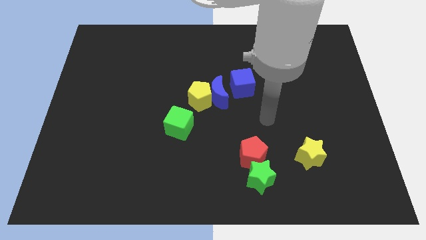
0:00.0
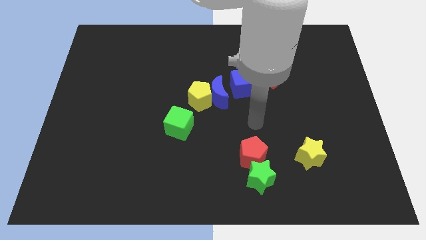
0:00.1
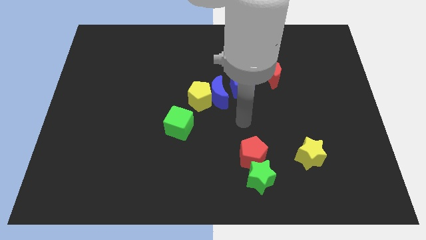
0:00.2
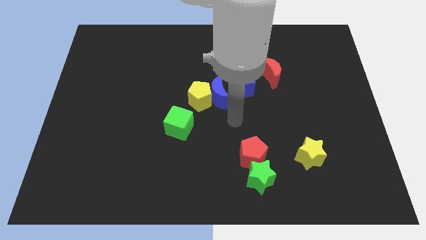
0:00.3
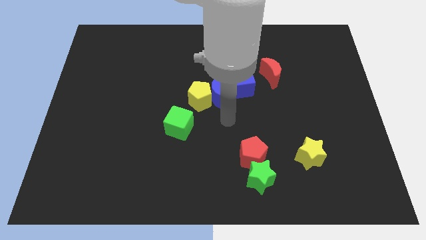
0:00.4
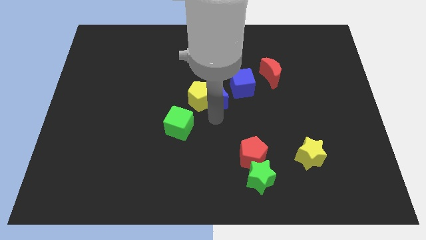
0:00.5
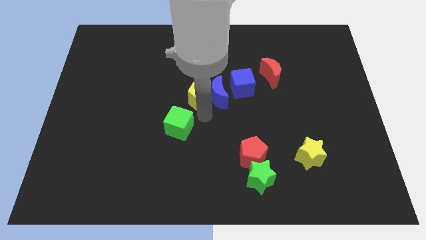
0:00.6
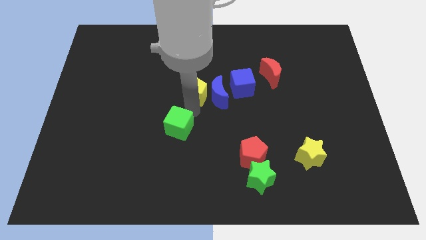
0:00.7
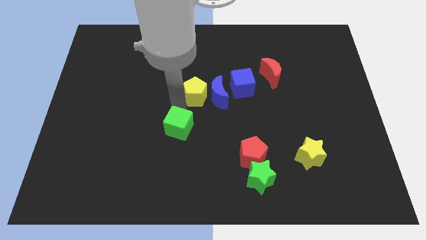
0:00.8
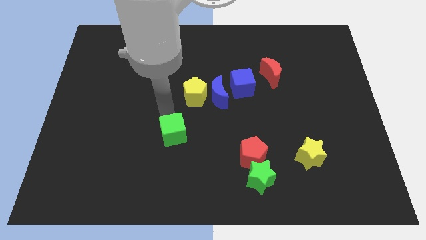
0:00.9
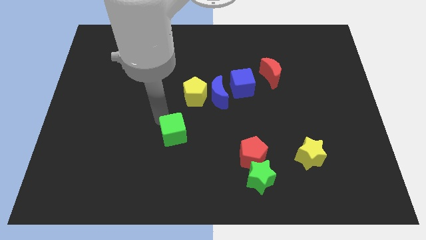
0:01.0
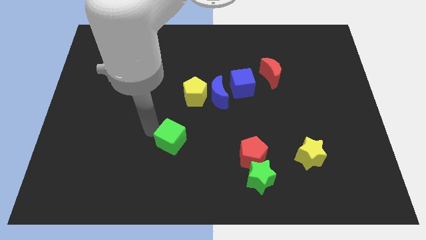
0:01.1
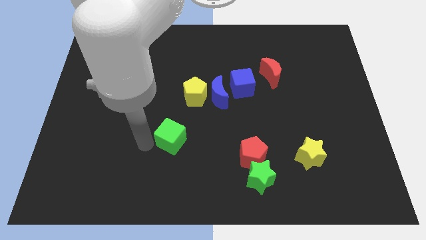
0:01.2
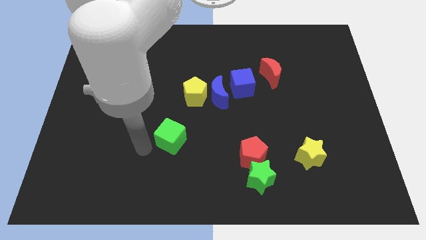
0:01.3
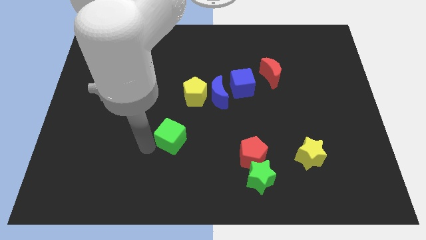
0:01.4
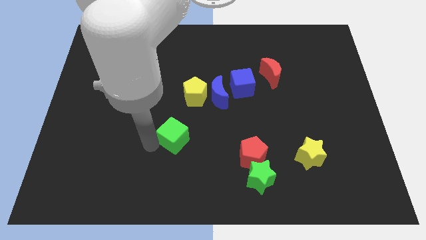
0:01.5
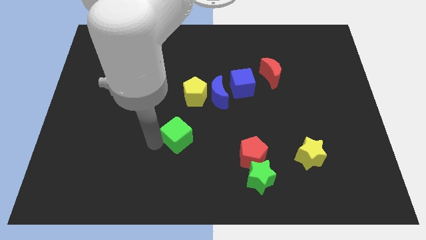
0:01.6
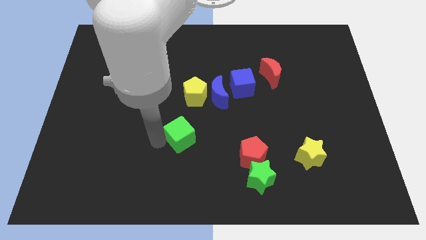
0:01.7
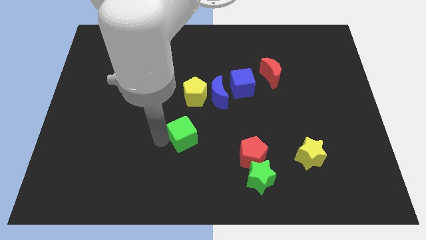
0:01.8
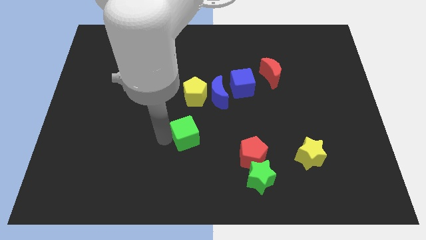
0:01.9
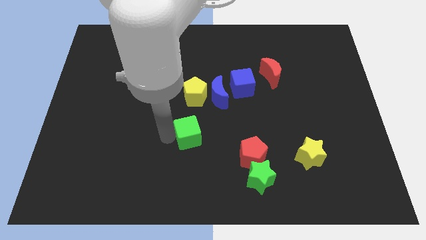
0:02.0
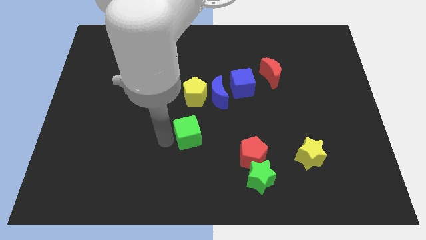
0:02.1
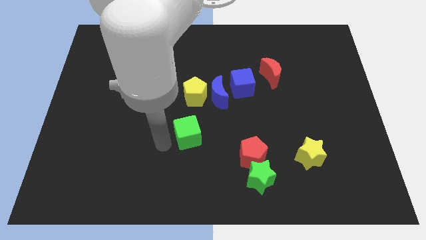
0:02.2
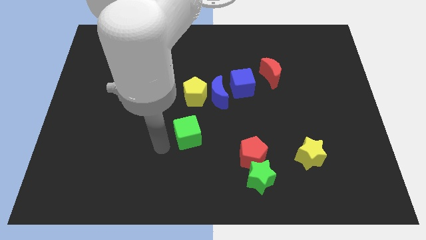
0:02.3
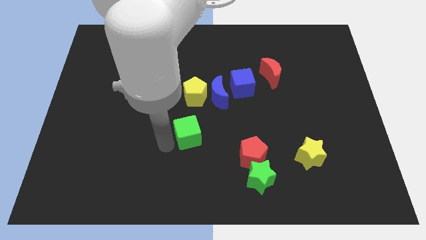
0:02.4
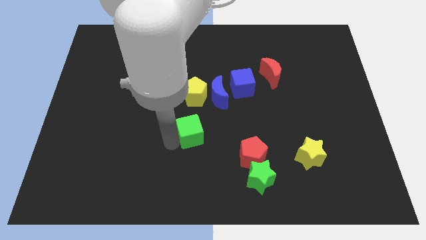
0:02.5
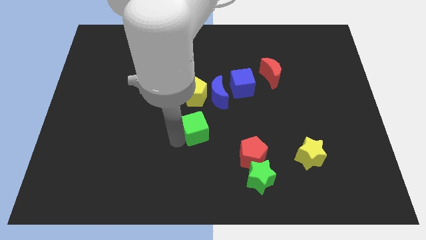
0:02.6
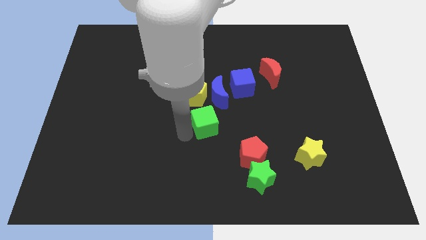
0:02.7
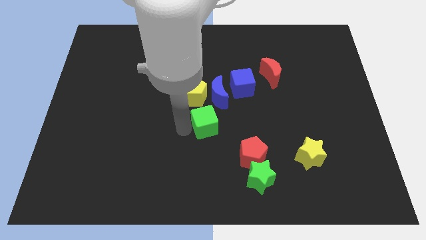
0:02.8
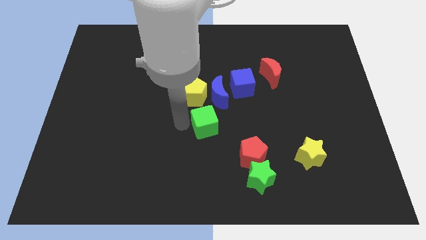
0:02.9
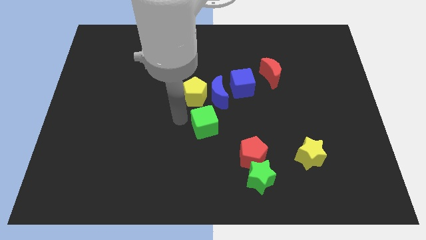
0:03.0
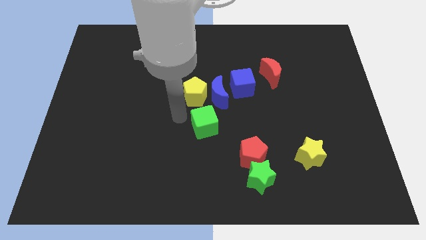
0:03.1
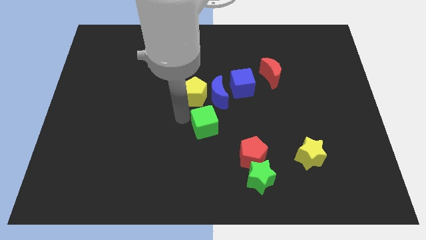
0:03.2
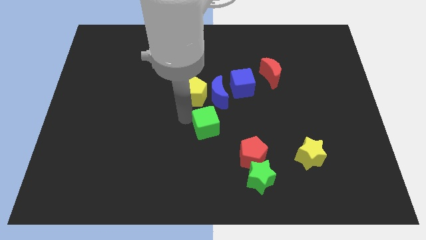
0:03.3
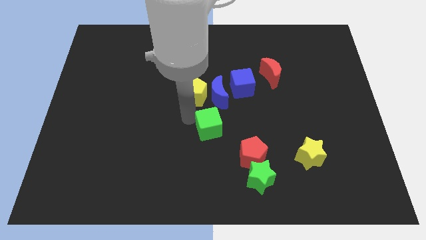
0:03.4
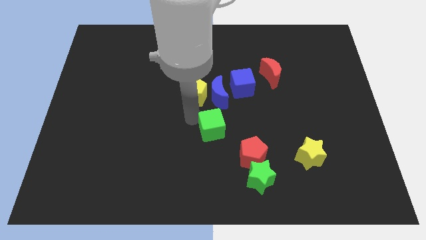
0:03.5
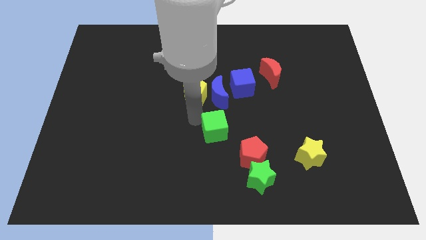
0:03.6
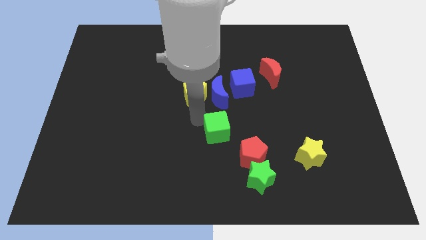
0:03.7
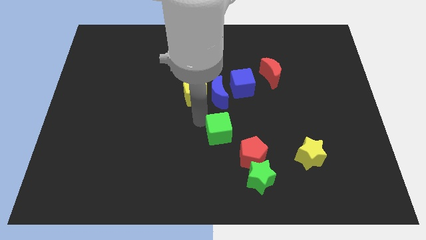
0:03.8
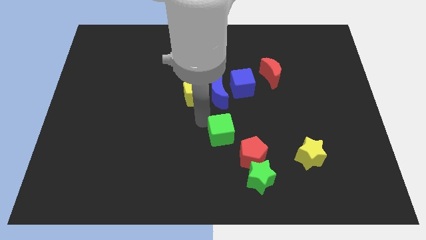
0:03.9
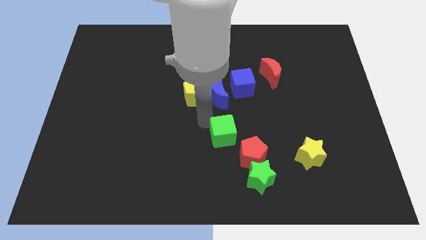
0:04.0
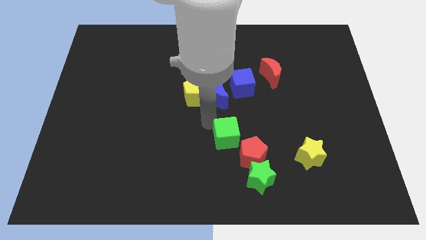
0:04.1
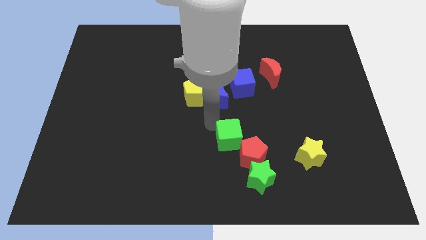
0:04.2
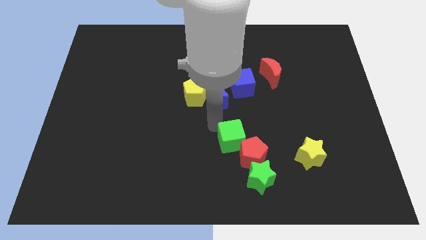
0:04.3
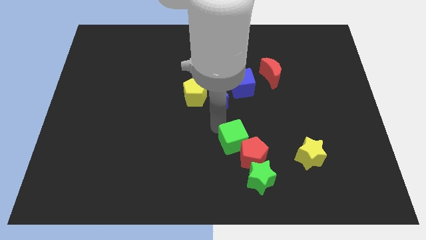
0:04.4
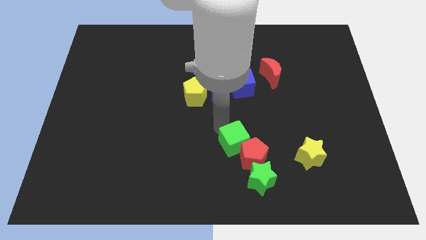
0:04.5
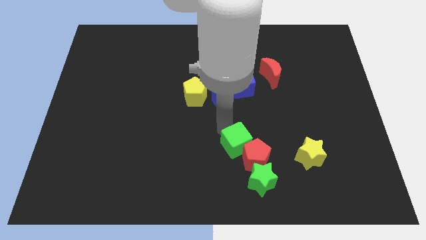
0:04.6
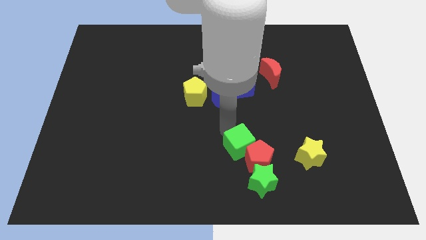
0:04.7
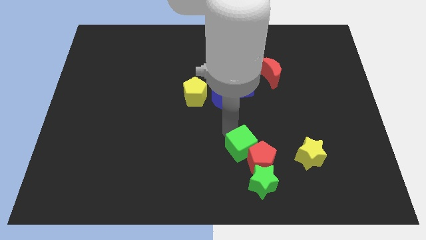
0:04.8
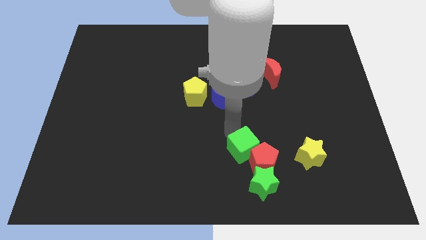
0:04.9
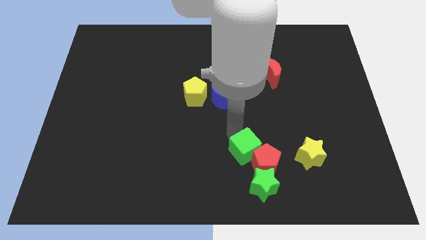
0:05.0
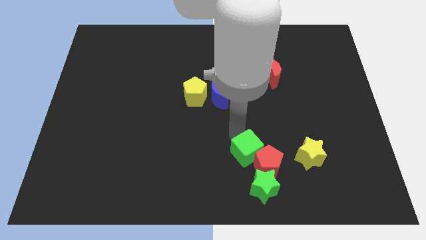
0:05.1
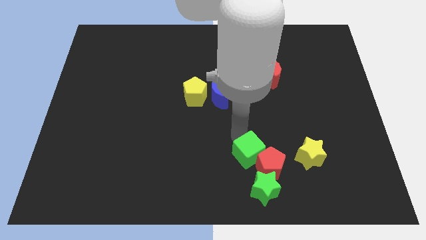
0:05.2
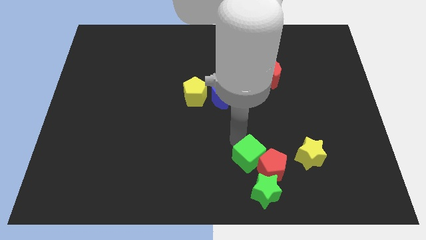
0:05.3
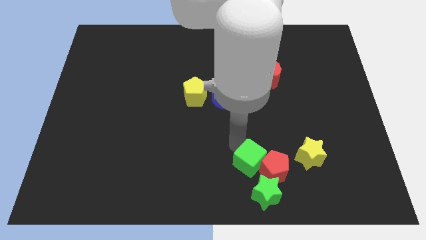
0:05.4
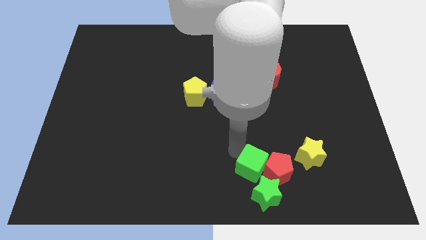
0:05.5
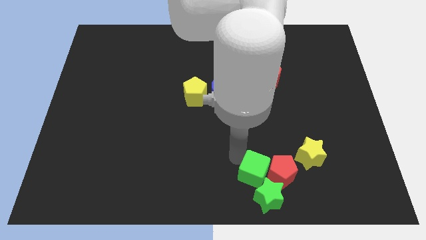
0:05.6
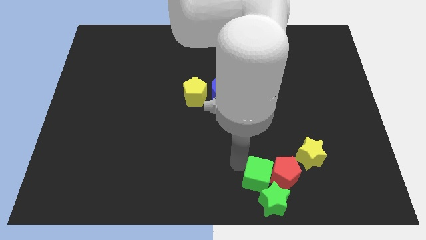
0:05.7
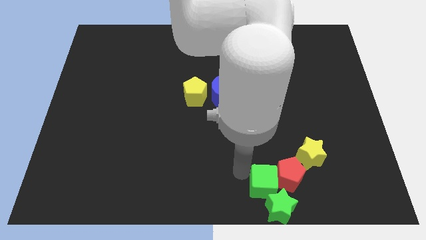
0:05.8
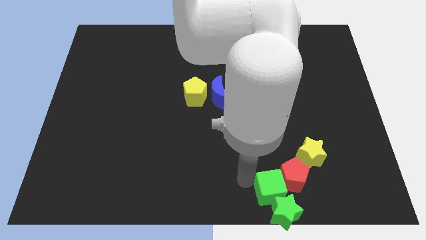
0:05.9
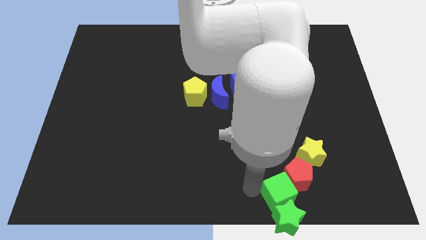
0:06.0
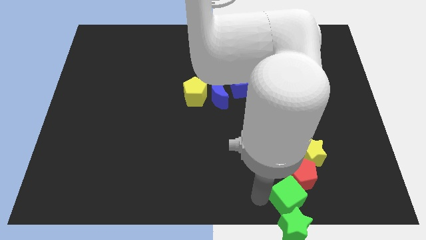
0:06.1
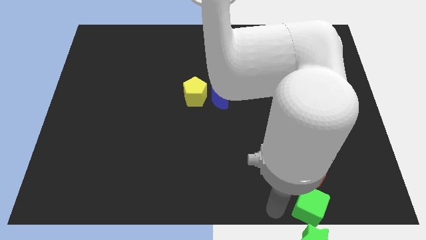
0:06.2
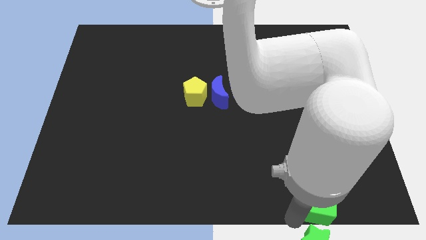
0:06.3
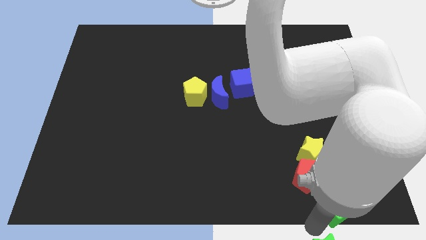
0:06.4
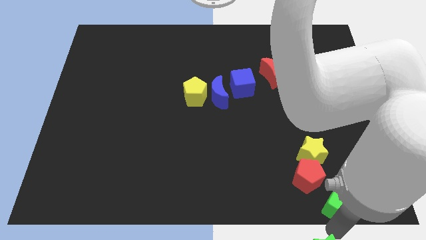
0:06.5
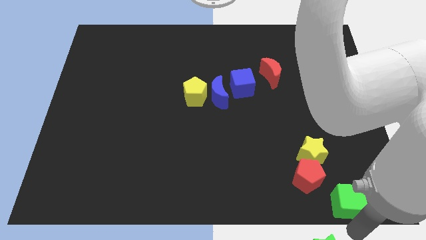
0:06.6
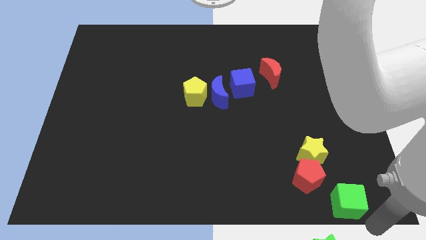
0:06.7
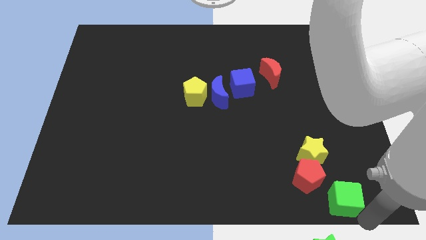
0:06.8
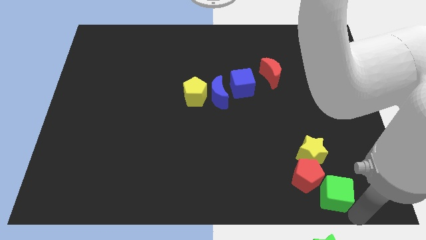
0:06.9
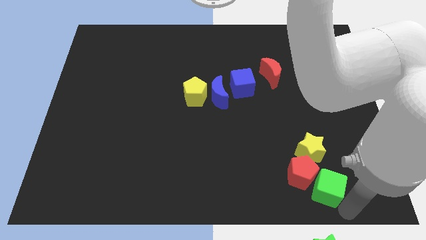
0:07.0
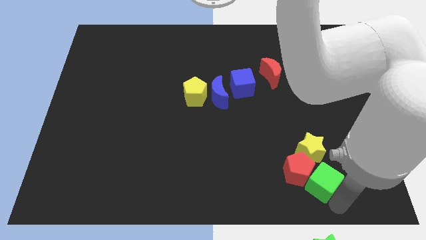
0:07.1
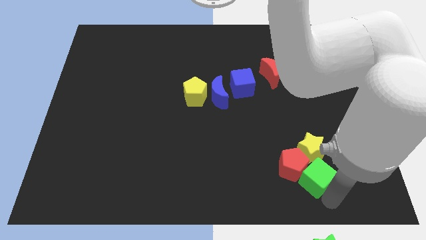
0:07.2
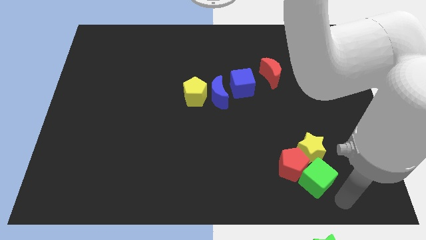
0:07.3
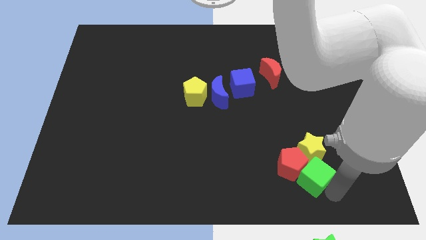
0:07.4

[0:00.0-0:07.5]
slide the green cube close to the yellow star
